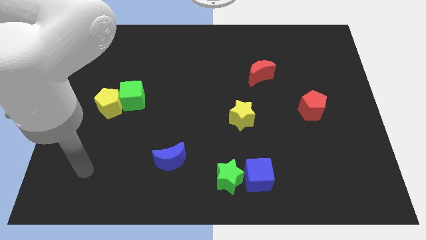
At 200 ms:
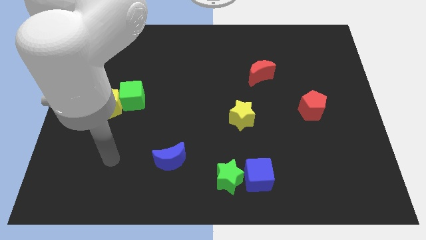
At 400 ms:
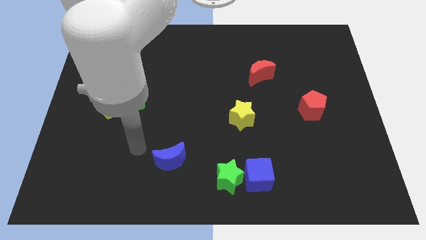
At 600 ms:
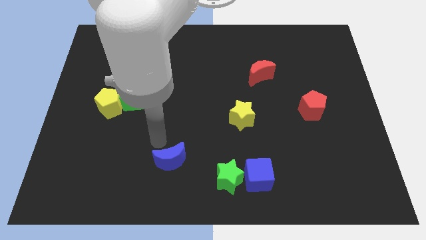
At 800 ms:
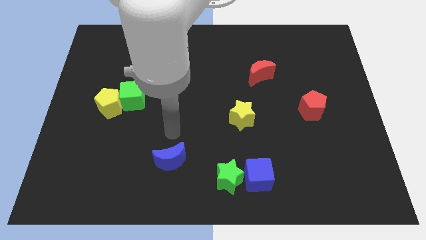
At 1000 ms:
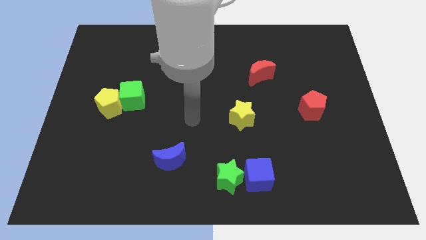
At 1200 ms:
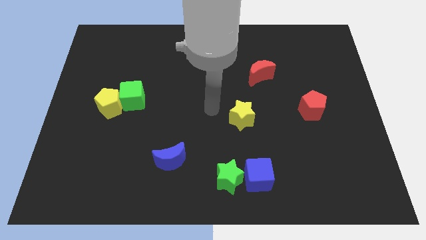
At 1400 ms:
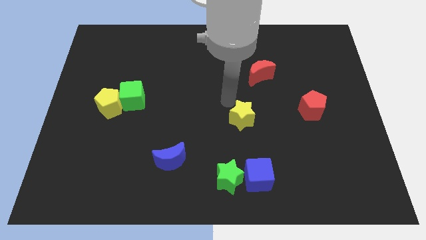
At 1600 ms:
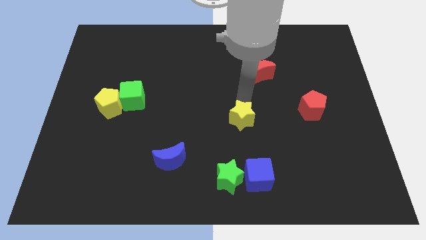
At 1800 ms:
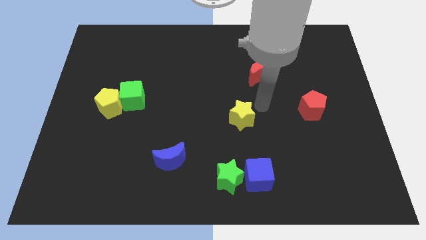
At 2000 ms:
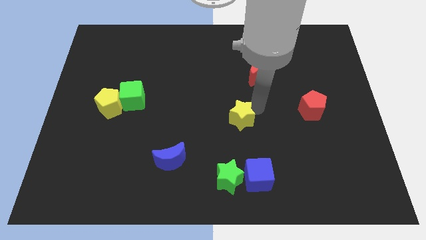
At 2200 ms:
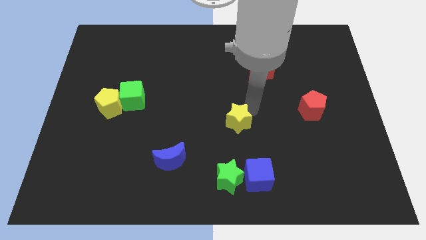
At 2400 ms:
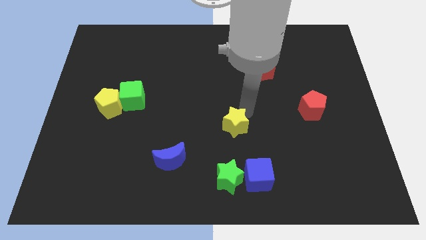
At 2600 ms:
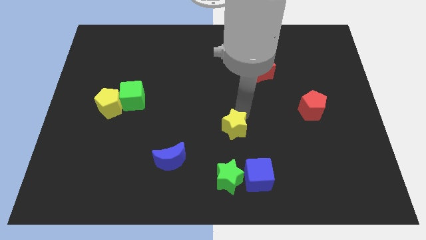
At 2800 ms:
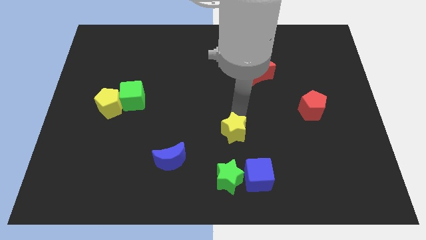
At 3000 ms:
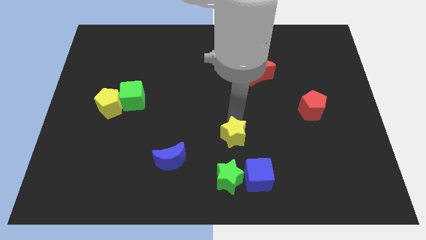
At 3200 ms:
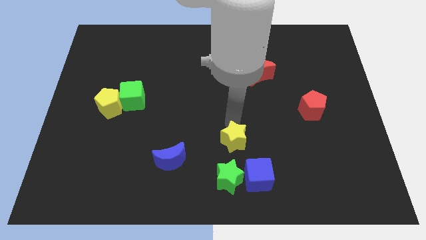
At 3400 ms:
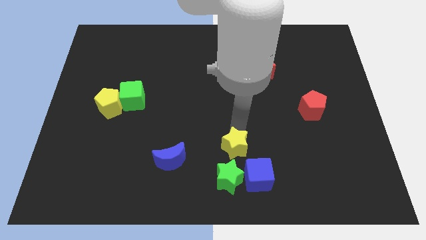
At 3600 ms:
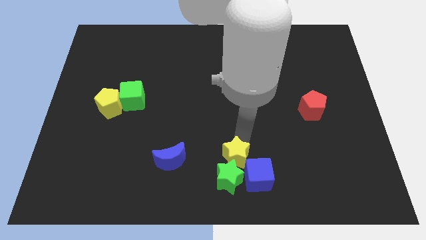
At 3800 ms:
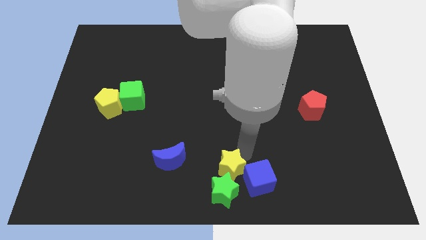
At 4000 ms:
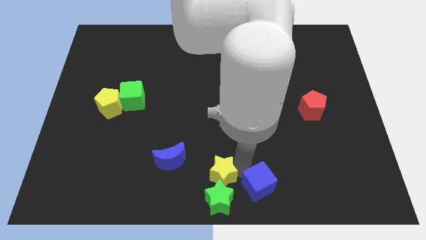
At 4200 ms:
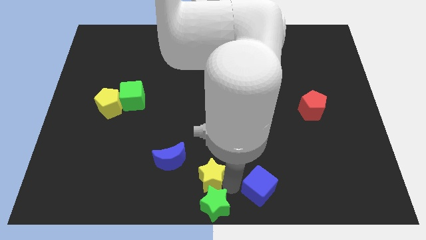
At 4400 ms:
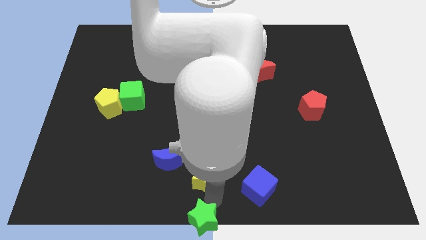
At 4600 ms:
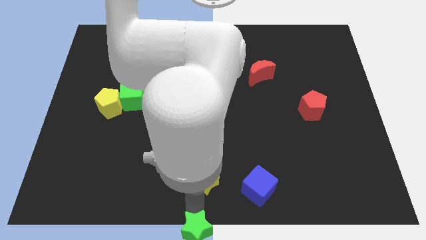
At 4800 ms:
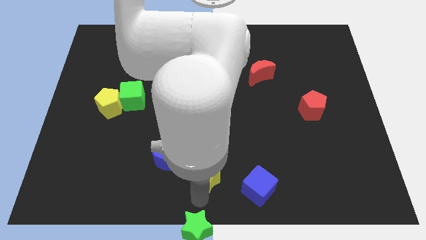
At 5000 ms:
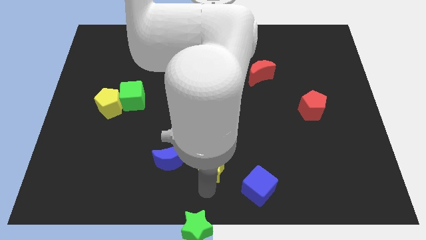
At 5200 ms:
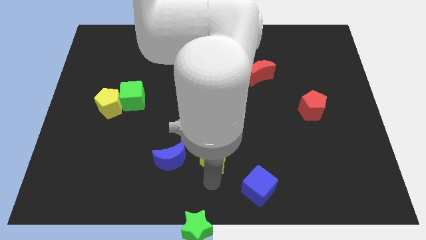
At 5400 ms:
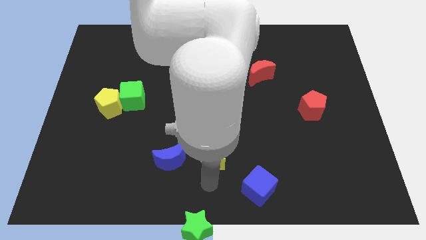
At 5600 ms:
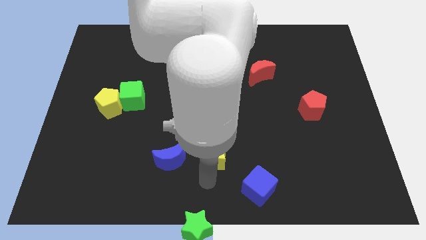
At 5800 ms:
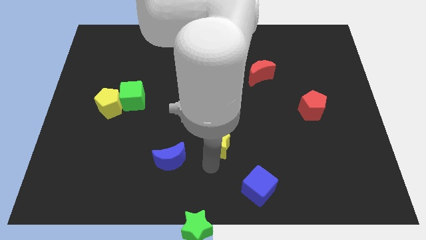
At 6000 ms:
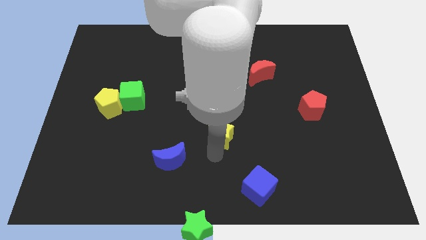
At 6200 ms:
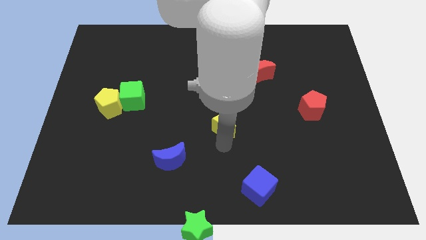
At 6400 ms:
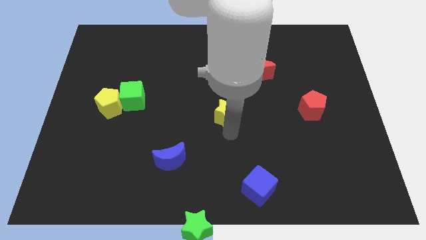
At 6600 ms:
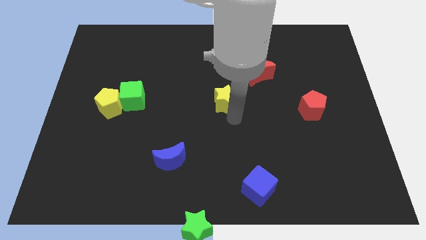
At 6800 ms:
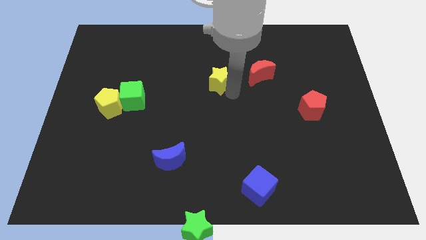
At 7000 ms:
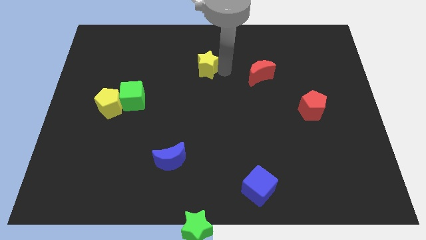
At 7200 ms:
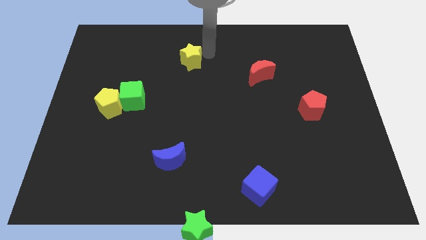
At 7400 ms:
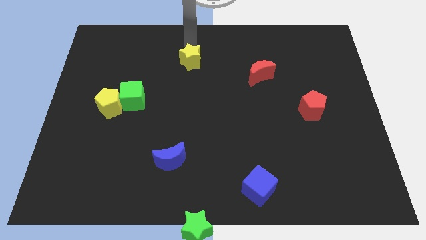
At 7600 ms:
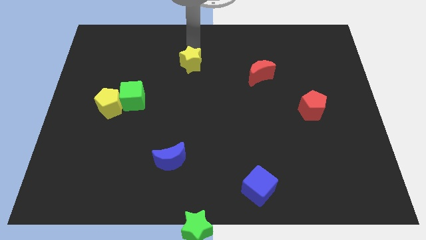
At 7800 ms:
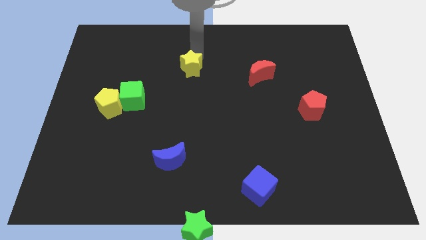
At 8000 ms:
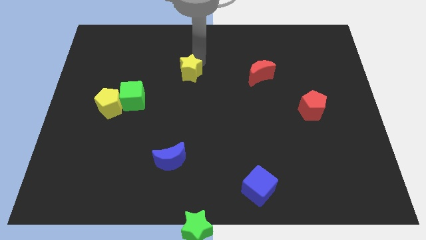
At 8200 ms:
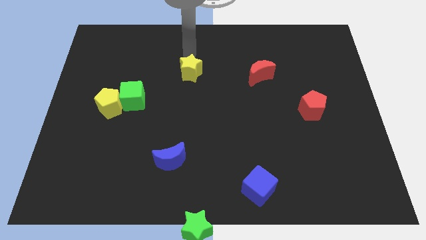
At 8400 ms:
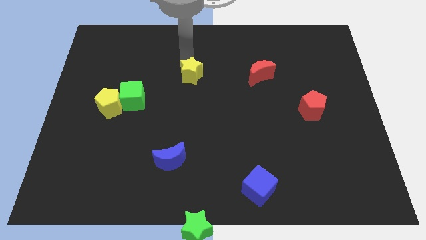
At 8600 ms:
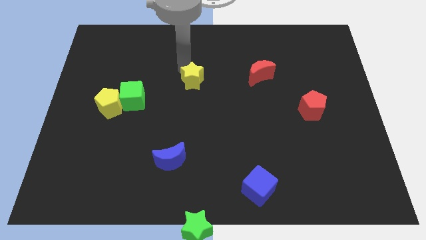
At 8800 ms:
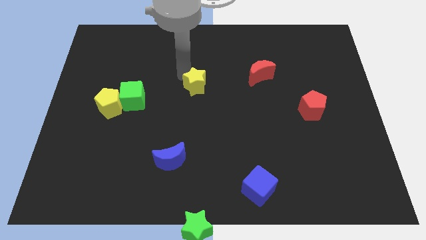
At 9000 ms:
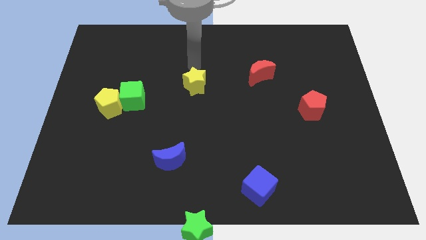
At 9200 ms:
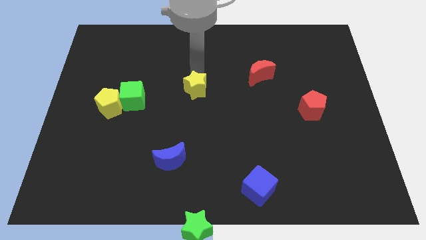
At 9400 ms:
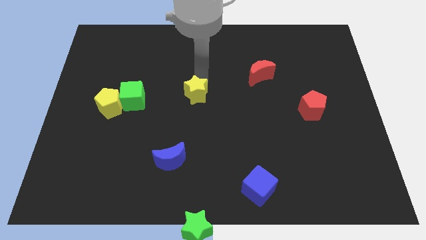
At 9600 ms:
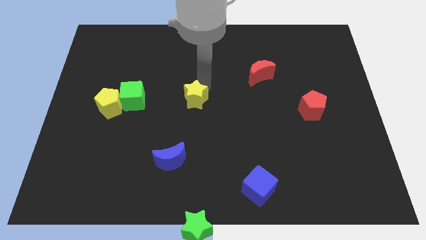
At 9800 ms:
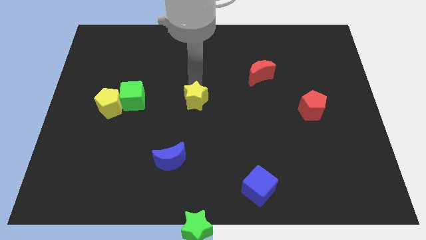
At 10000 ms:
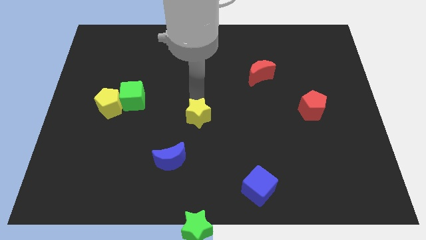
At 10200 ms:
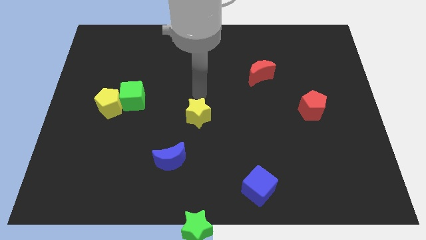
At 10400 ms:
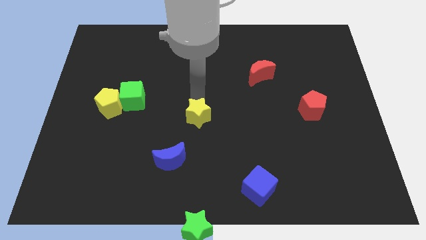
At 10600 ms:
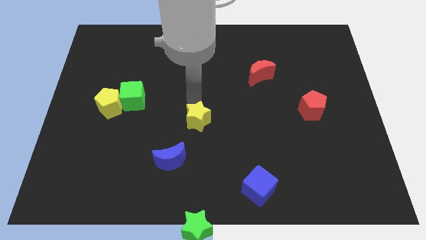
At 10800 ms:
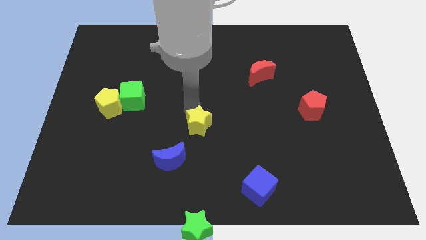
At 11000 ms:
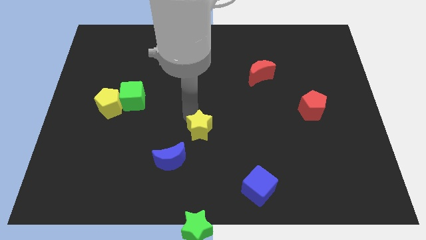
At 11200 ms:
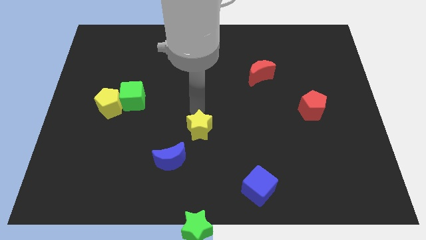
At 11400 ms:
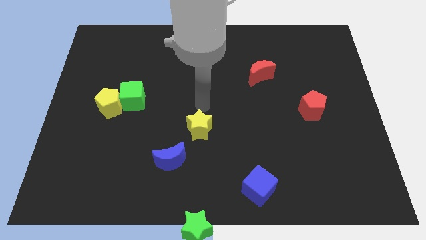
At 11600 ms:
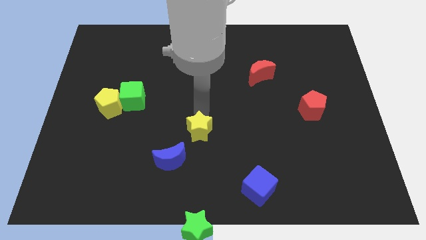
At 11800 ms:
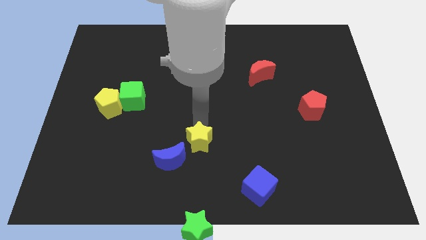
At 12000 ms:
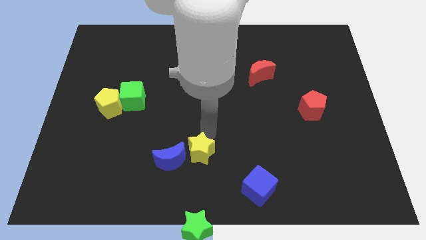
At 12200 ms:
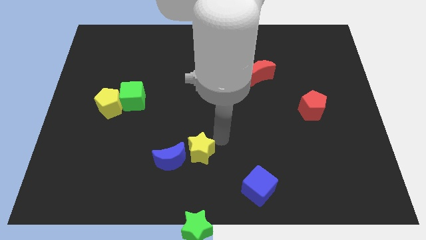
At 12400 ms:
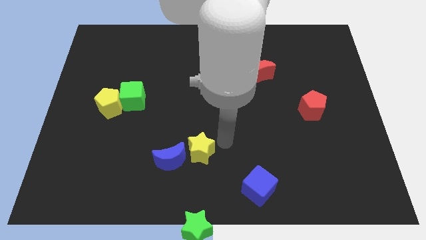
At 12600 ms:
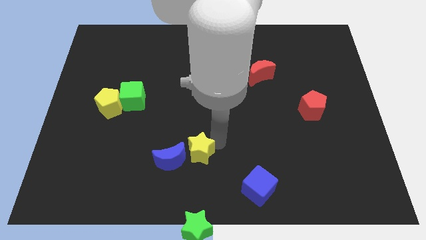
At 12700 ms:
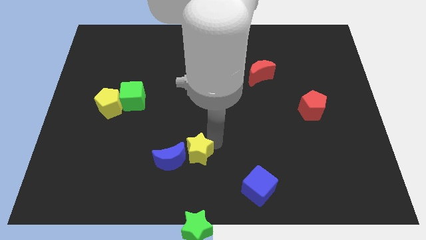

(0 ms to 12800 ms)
put the yellow star to the blue moon

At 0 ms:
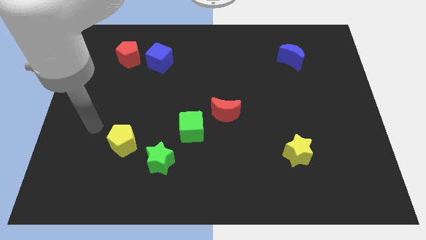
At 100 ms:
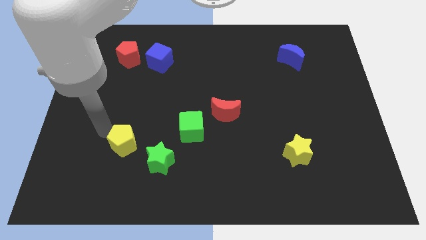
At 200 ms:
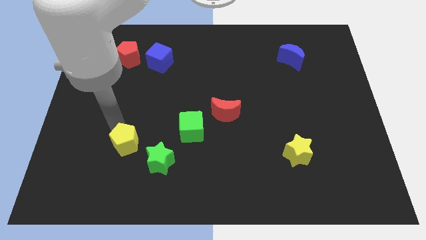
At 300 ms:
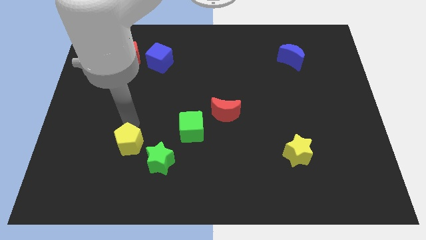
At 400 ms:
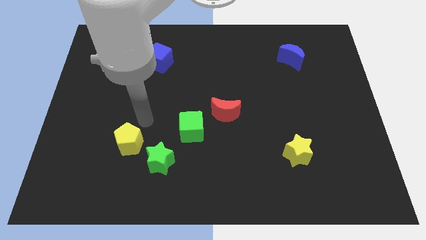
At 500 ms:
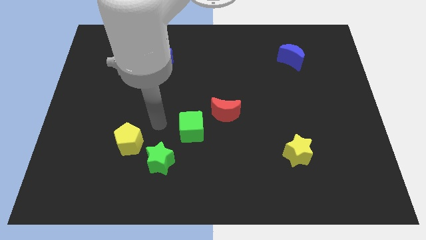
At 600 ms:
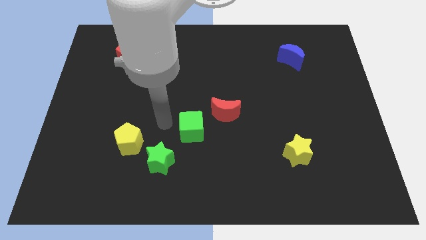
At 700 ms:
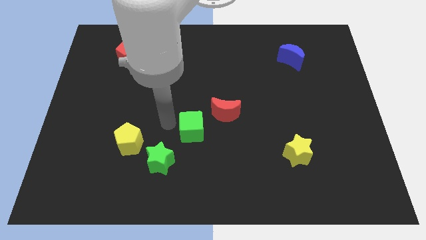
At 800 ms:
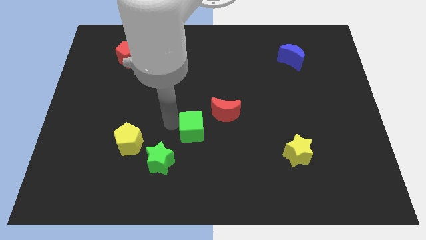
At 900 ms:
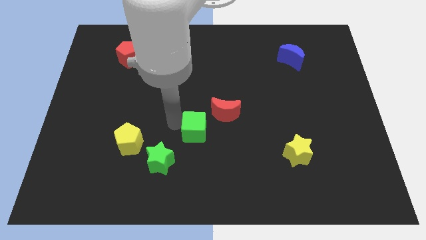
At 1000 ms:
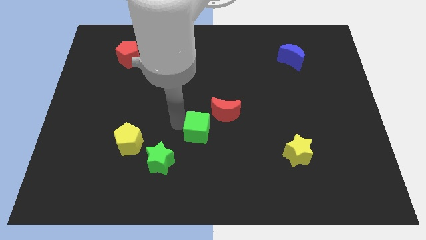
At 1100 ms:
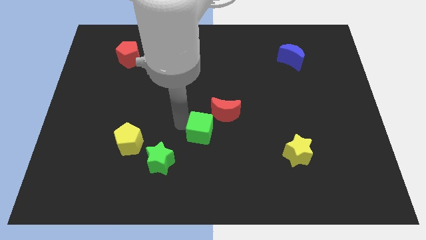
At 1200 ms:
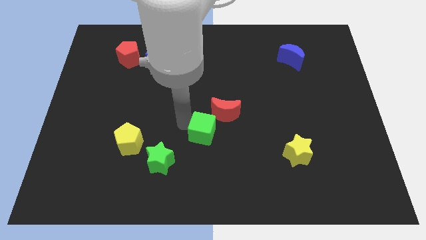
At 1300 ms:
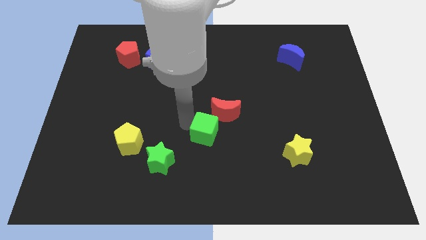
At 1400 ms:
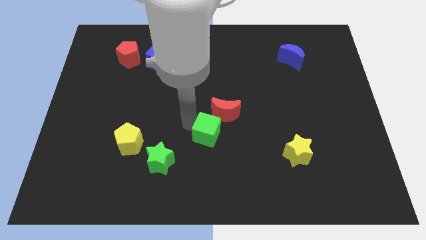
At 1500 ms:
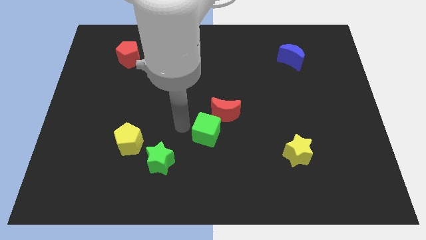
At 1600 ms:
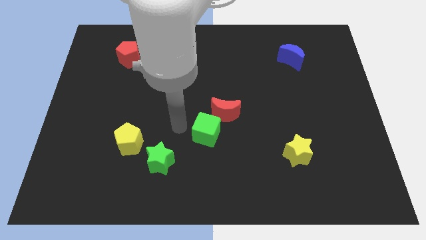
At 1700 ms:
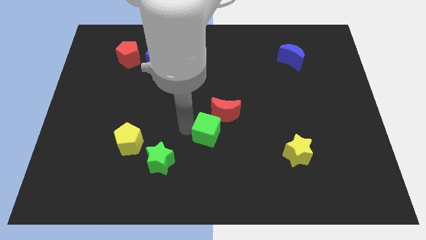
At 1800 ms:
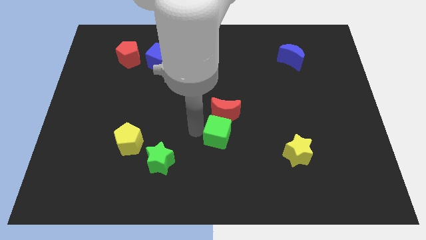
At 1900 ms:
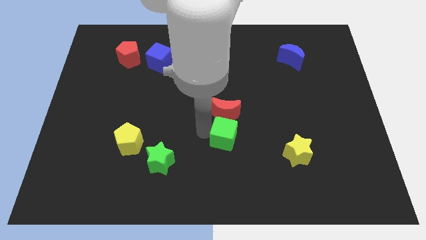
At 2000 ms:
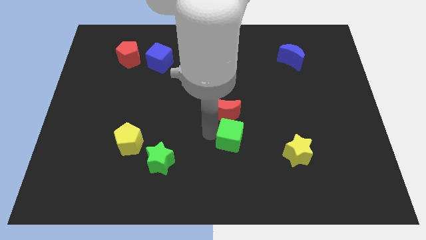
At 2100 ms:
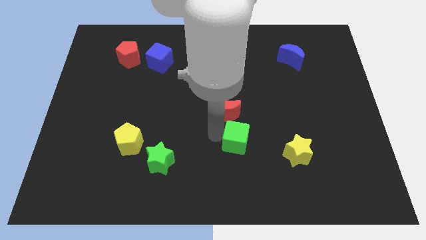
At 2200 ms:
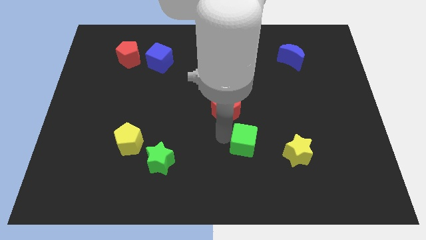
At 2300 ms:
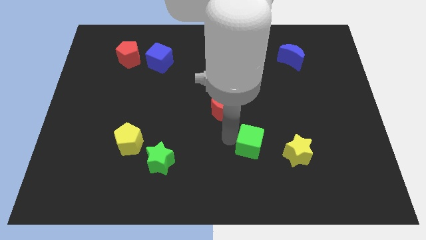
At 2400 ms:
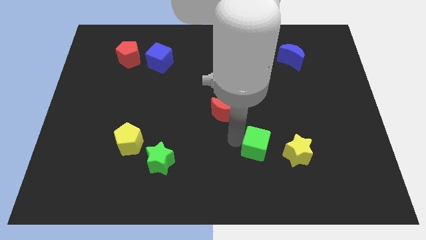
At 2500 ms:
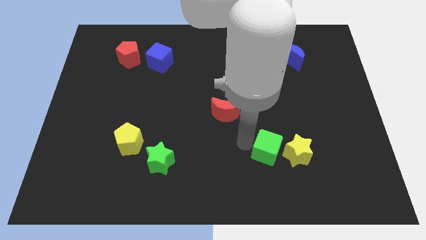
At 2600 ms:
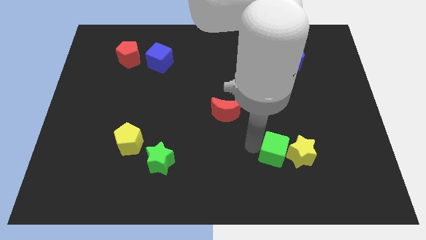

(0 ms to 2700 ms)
push the green cube to the yellow star
